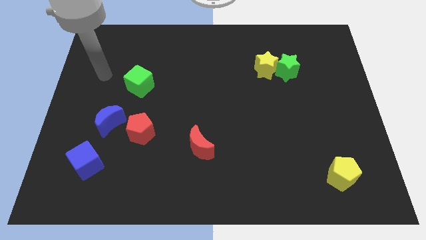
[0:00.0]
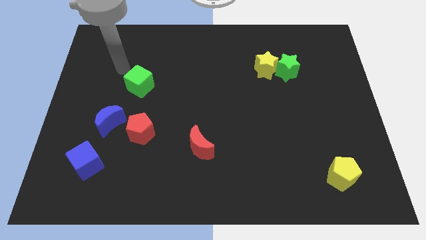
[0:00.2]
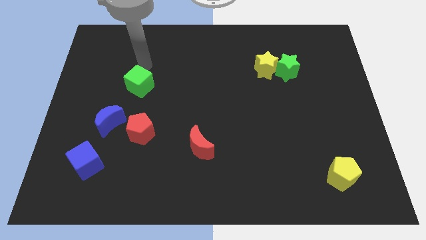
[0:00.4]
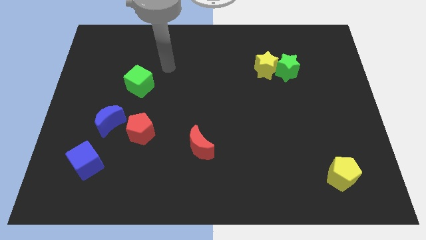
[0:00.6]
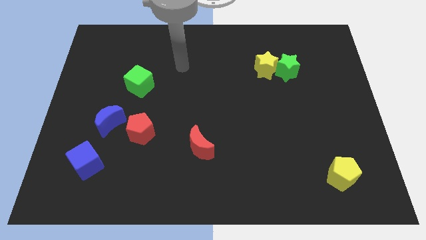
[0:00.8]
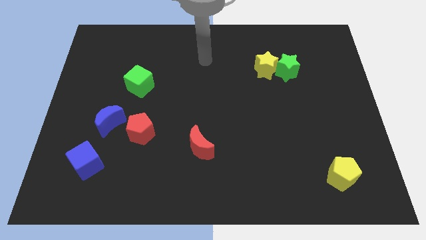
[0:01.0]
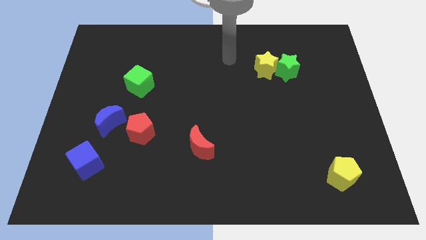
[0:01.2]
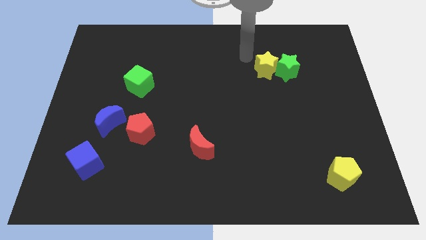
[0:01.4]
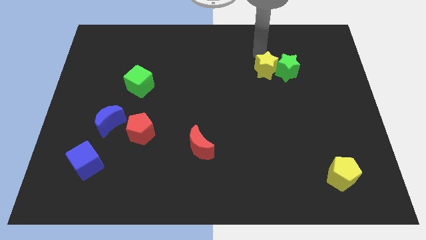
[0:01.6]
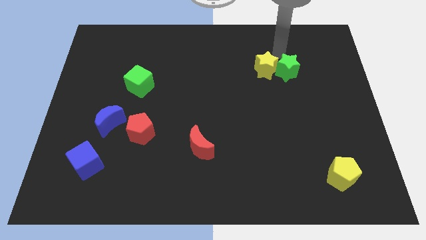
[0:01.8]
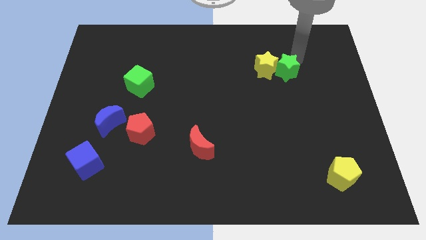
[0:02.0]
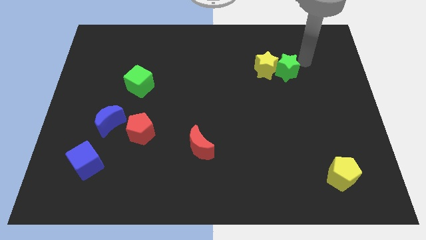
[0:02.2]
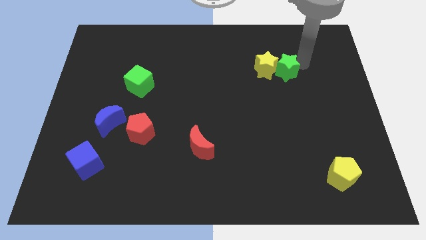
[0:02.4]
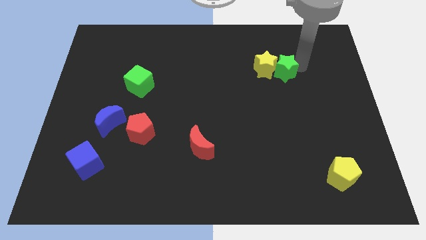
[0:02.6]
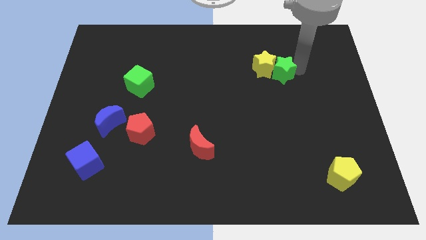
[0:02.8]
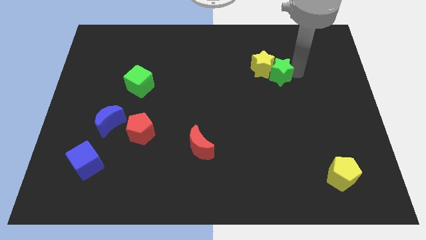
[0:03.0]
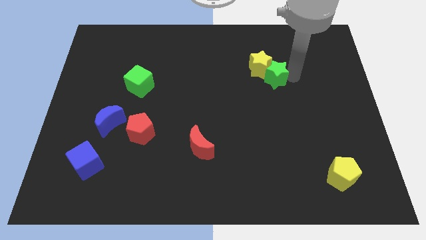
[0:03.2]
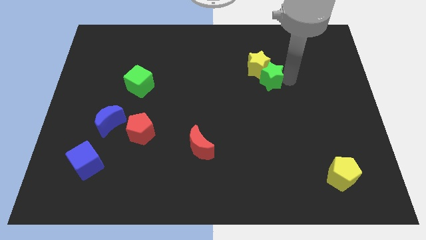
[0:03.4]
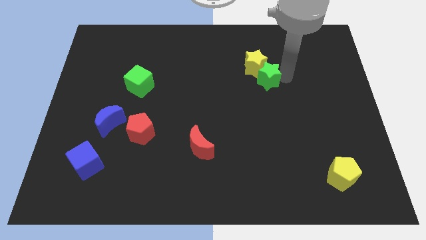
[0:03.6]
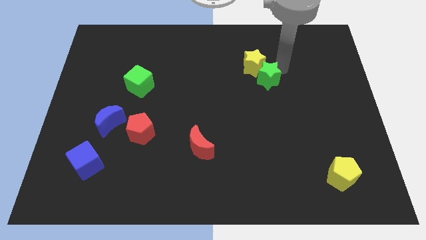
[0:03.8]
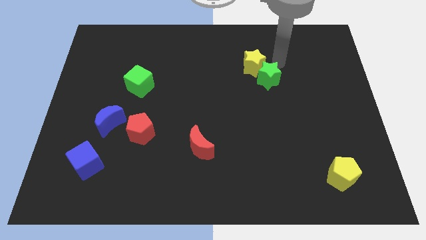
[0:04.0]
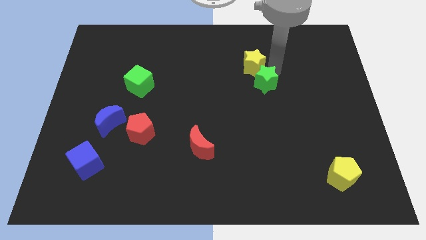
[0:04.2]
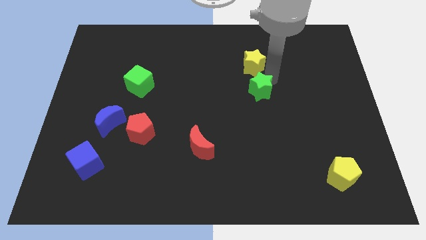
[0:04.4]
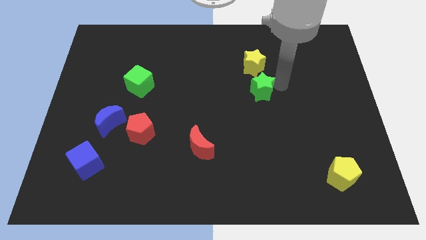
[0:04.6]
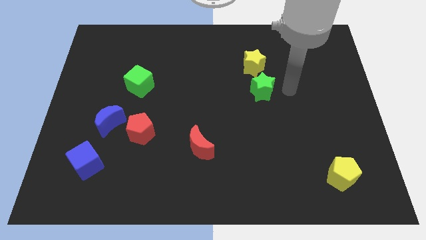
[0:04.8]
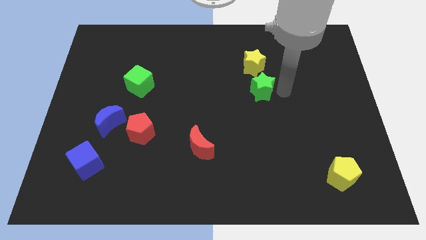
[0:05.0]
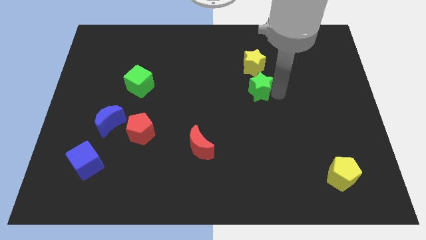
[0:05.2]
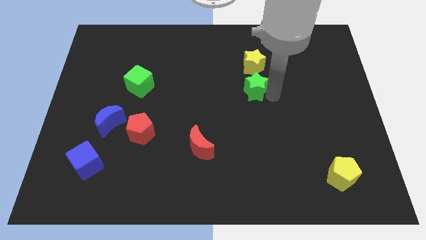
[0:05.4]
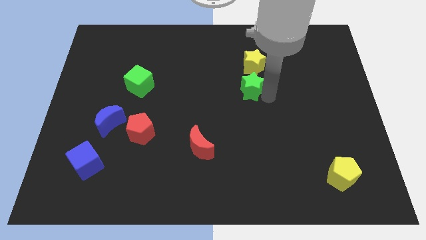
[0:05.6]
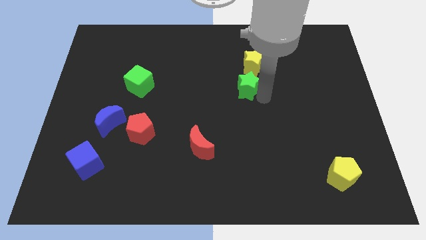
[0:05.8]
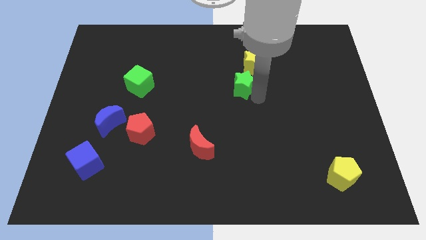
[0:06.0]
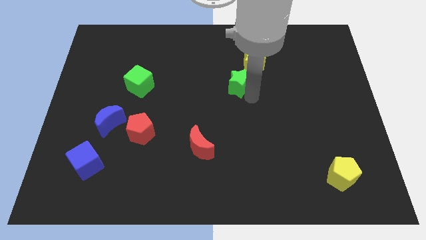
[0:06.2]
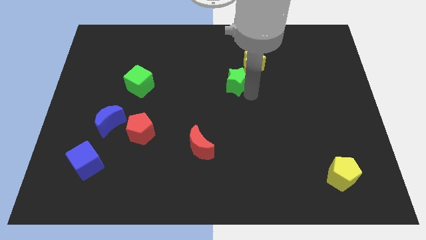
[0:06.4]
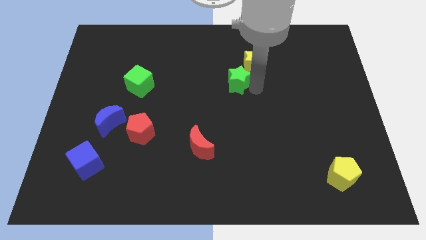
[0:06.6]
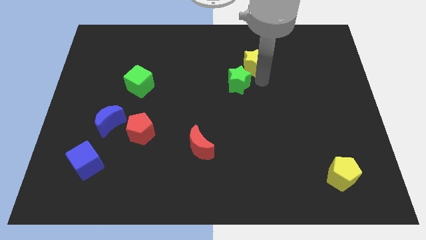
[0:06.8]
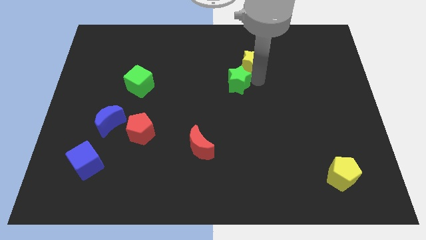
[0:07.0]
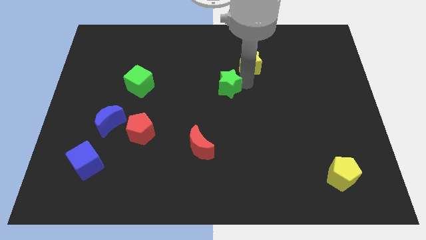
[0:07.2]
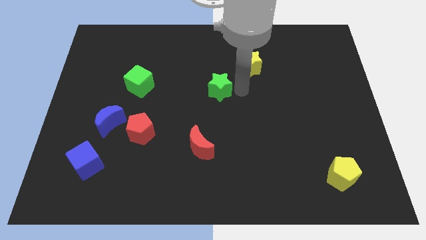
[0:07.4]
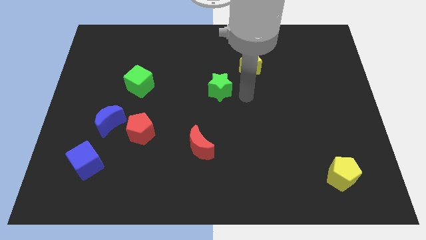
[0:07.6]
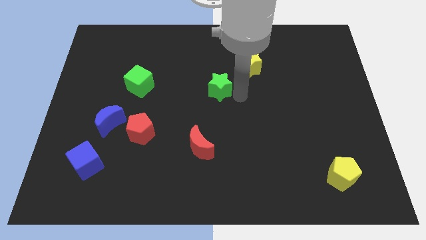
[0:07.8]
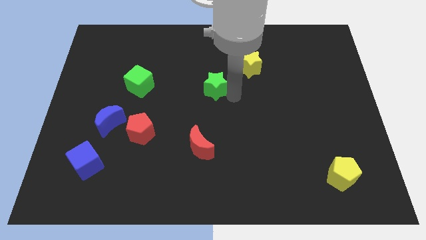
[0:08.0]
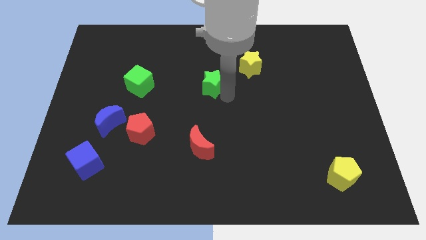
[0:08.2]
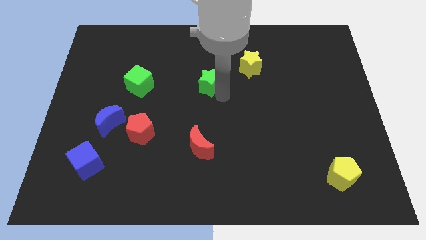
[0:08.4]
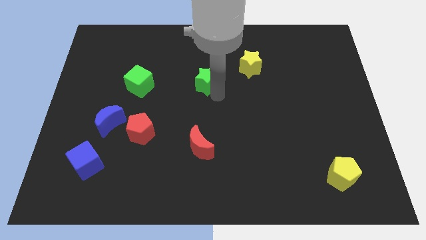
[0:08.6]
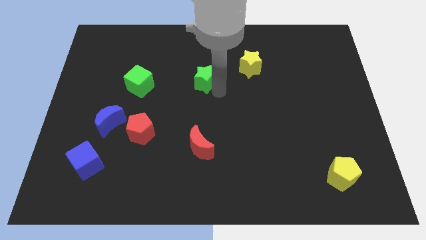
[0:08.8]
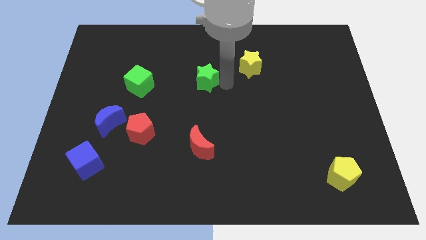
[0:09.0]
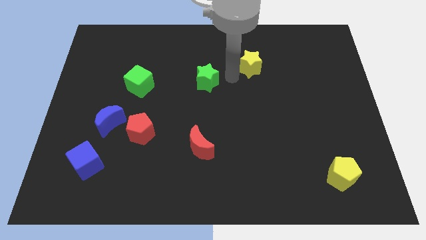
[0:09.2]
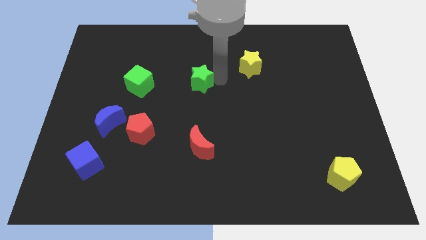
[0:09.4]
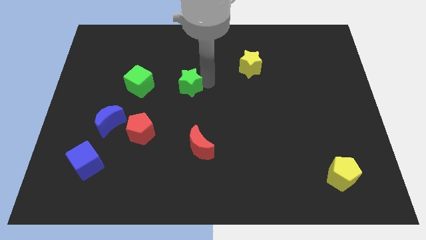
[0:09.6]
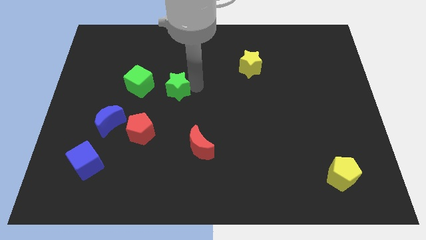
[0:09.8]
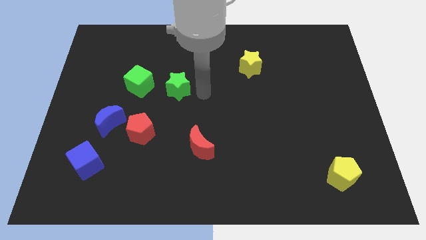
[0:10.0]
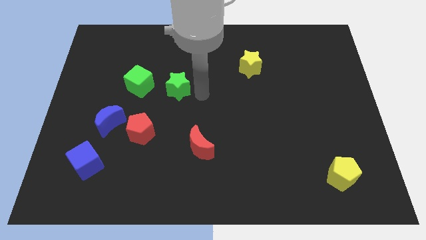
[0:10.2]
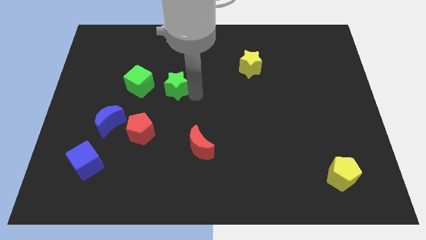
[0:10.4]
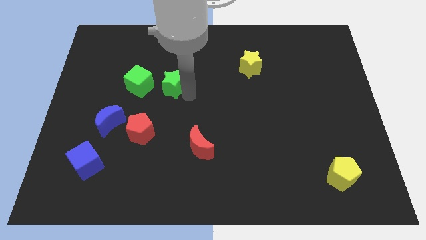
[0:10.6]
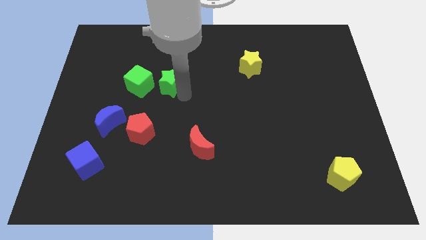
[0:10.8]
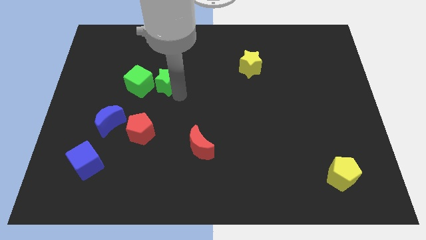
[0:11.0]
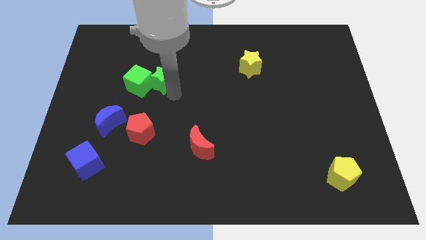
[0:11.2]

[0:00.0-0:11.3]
move the green star close to the green cube

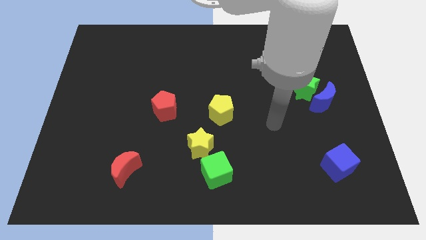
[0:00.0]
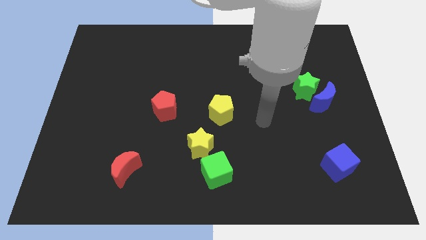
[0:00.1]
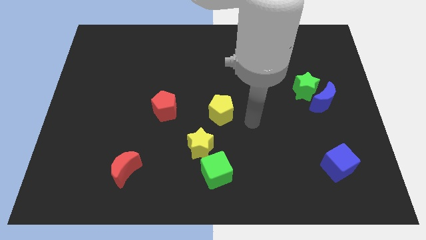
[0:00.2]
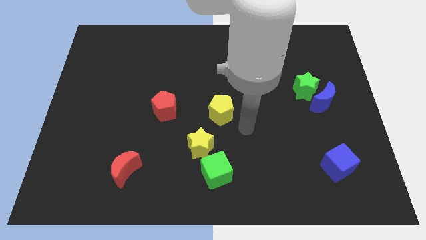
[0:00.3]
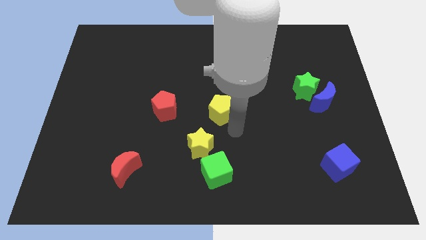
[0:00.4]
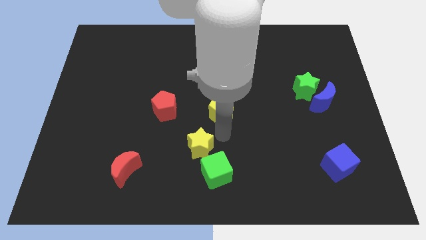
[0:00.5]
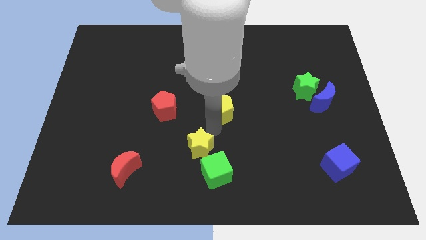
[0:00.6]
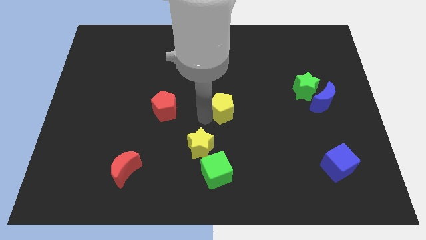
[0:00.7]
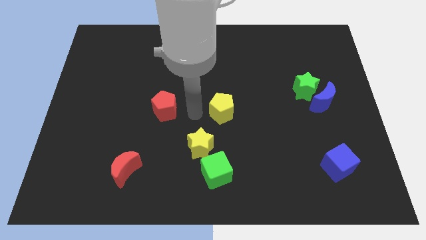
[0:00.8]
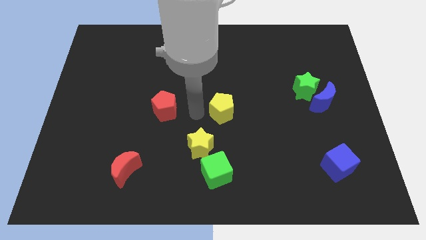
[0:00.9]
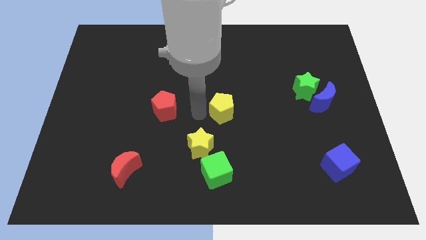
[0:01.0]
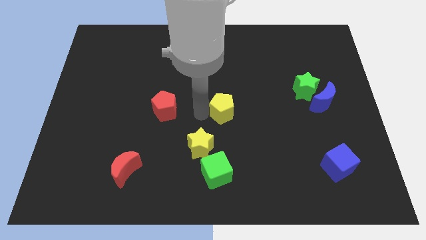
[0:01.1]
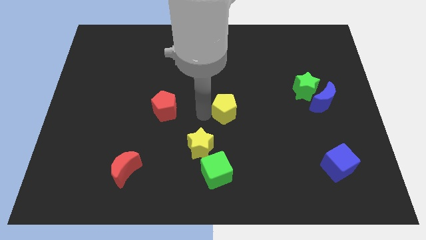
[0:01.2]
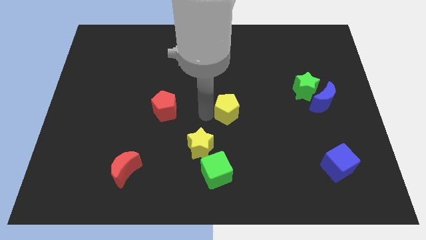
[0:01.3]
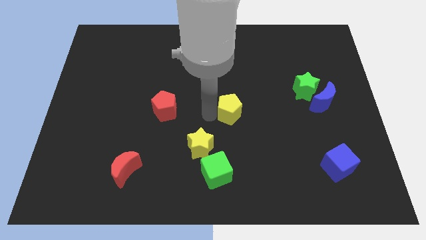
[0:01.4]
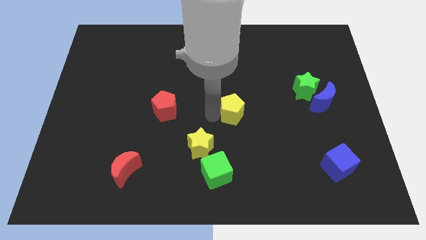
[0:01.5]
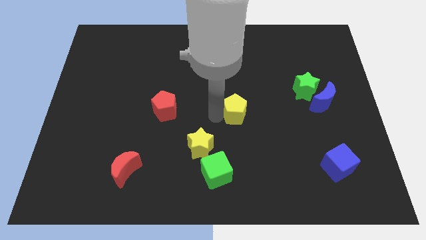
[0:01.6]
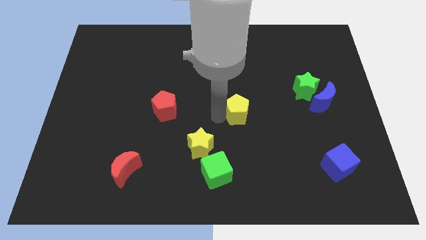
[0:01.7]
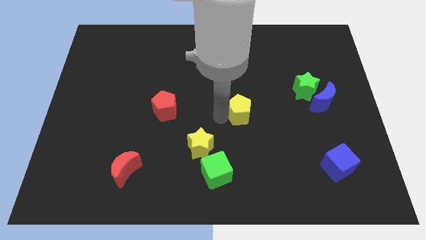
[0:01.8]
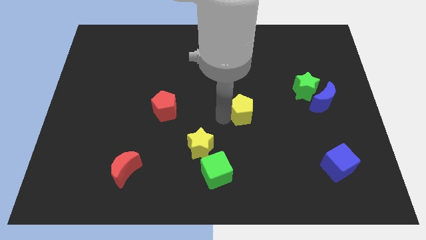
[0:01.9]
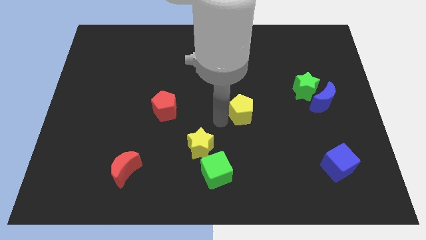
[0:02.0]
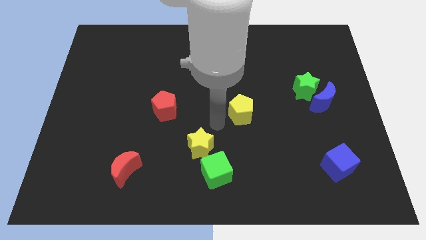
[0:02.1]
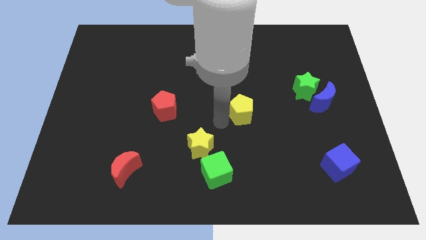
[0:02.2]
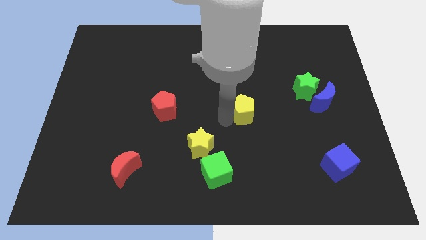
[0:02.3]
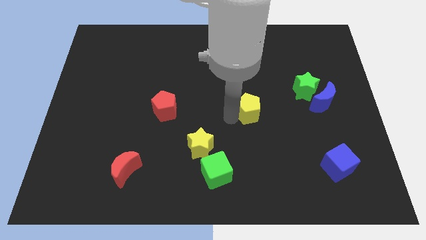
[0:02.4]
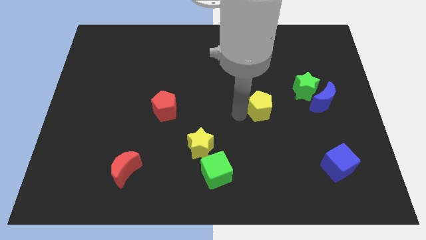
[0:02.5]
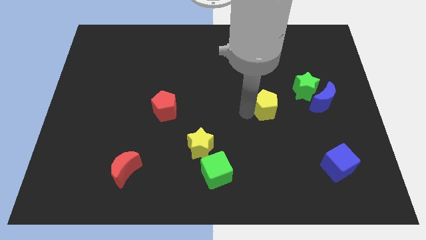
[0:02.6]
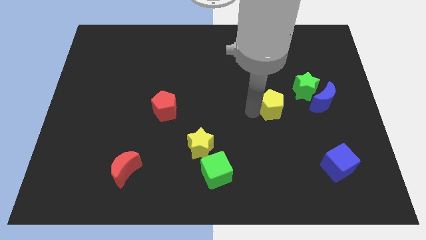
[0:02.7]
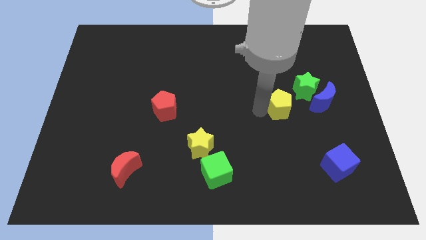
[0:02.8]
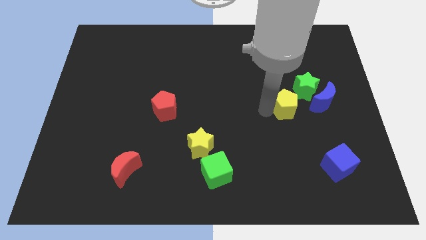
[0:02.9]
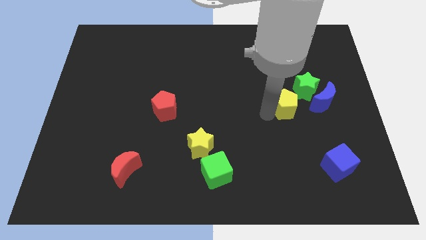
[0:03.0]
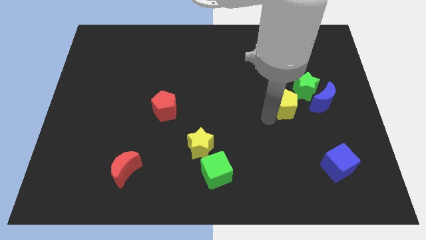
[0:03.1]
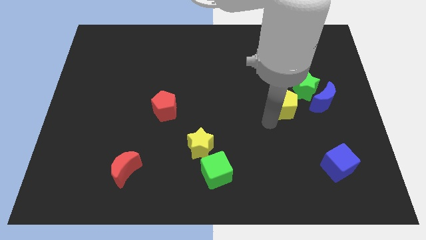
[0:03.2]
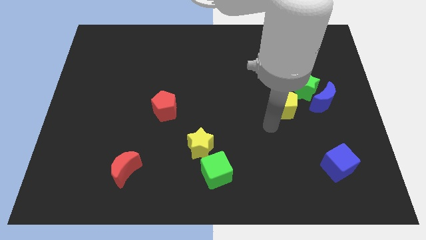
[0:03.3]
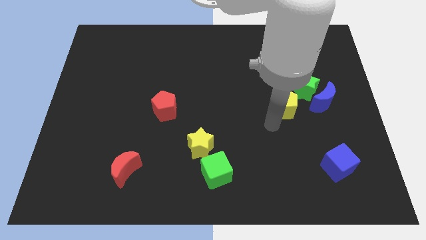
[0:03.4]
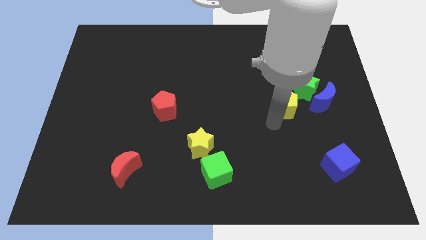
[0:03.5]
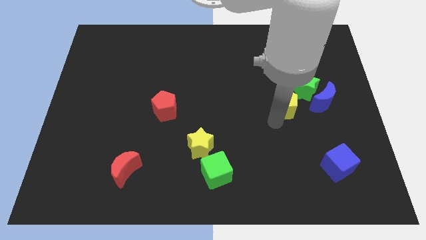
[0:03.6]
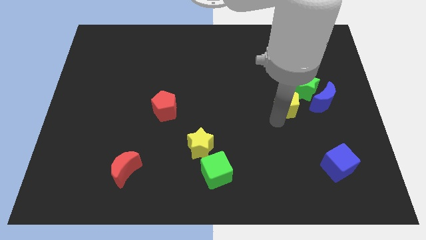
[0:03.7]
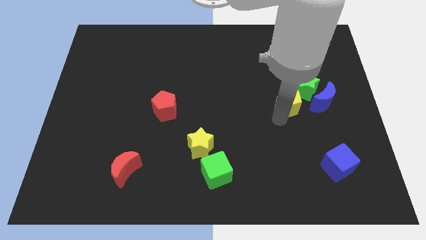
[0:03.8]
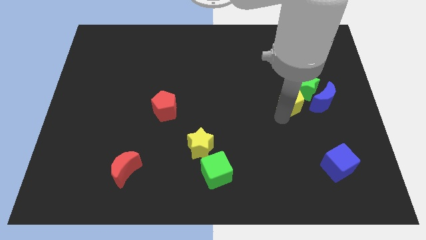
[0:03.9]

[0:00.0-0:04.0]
push the yellow pentagon towards the green star
